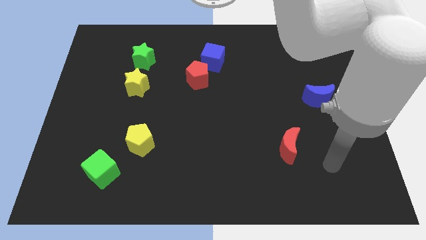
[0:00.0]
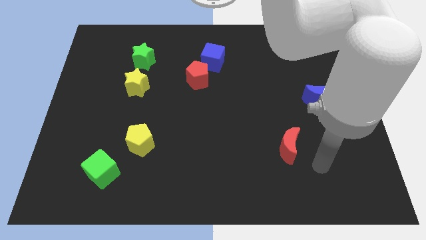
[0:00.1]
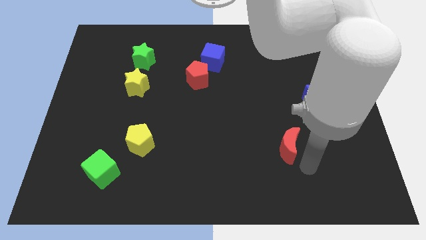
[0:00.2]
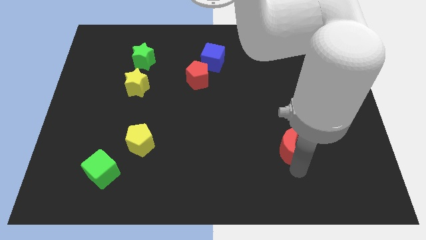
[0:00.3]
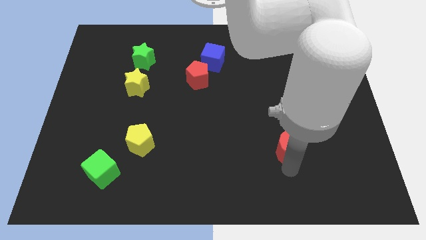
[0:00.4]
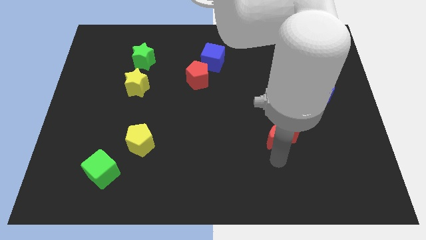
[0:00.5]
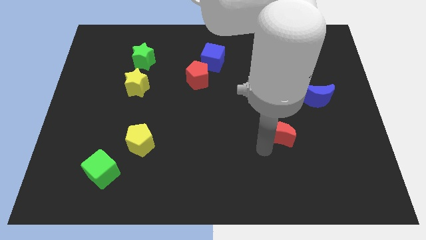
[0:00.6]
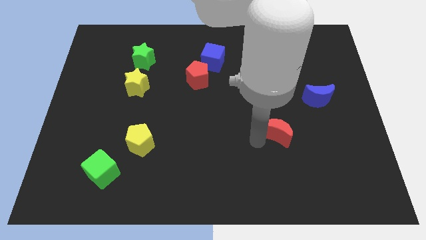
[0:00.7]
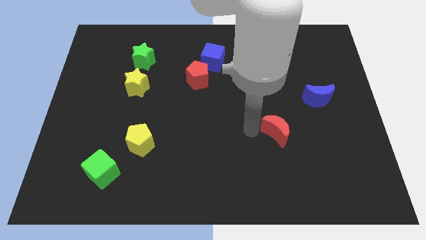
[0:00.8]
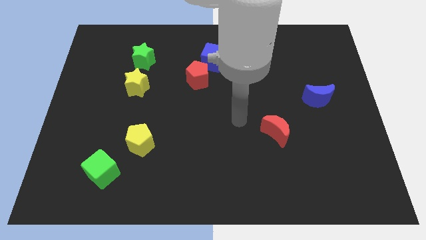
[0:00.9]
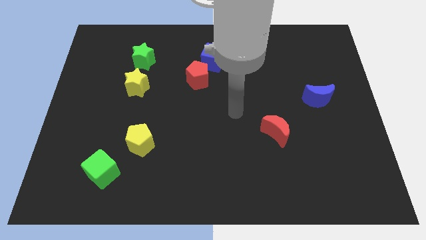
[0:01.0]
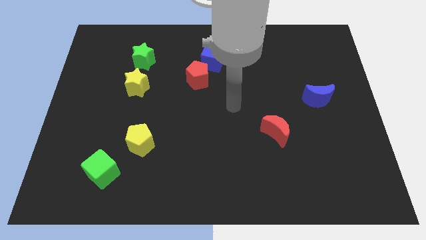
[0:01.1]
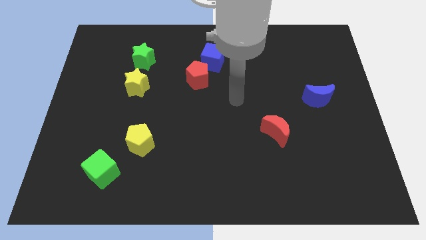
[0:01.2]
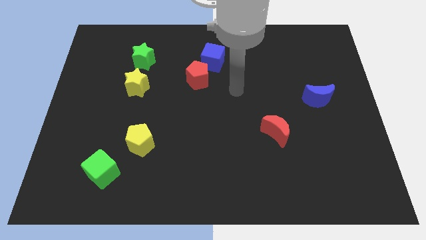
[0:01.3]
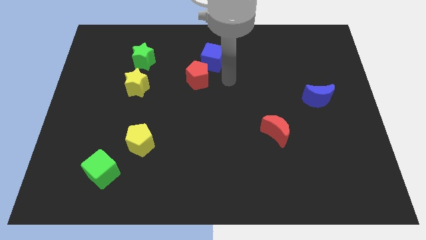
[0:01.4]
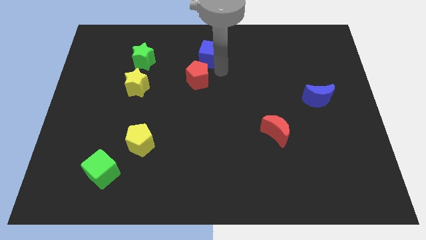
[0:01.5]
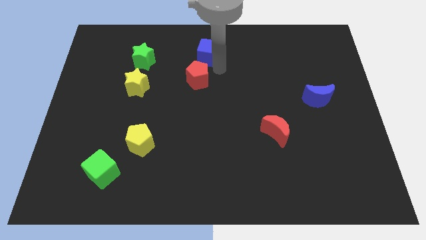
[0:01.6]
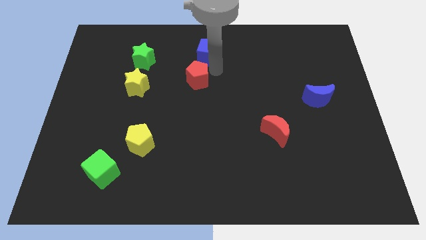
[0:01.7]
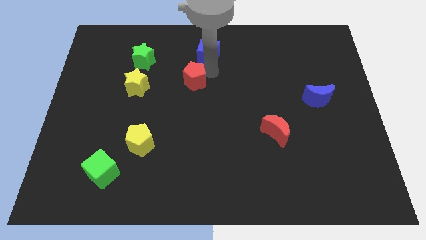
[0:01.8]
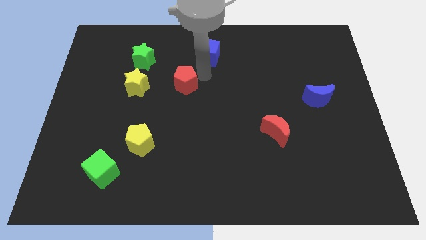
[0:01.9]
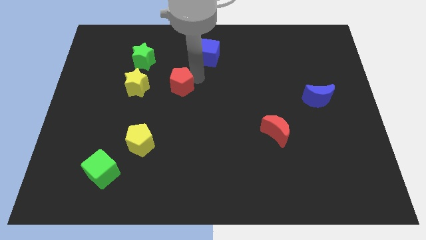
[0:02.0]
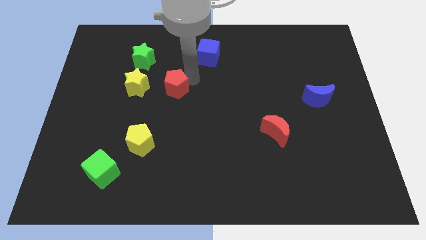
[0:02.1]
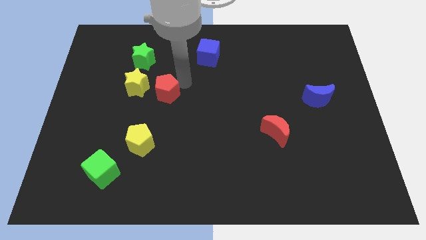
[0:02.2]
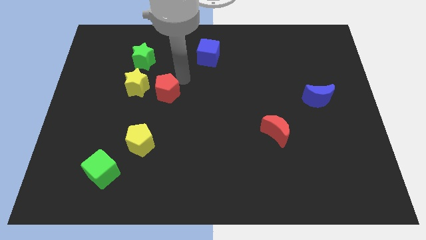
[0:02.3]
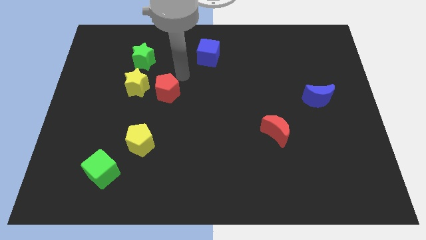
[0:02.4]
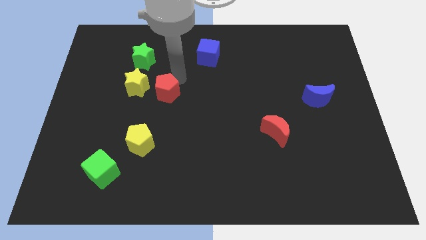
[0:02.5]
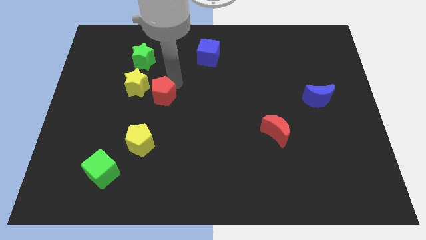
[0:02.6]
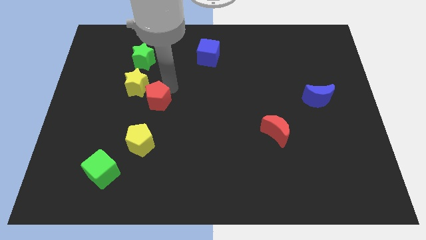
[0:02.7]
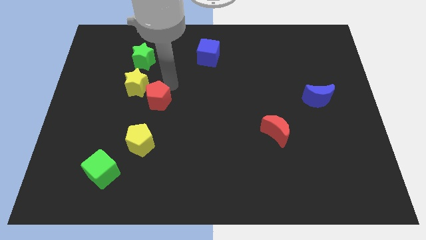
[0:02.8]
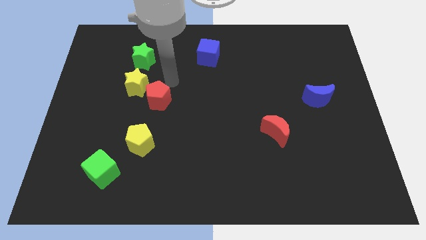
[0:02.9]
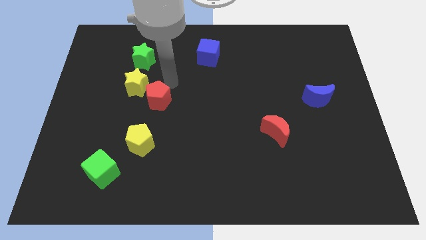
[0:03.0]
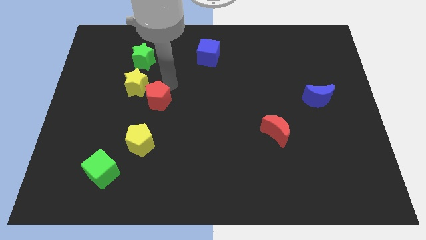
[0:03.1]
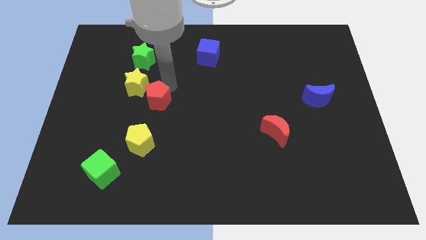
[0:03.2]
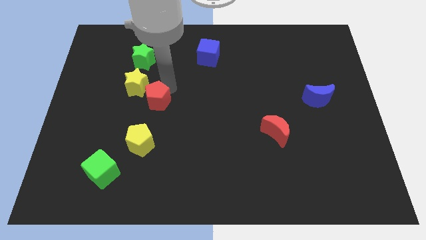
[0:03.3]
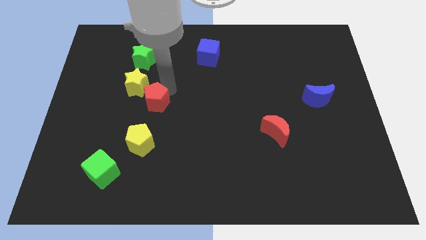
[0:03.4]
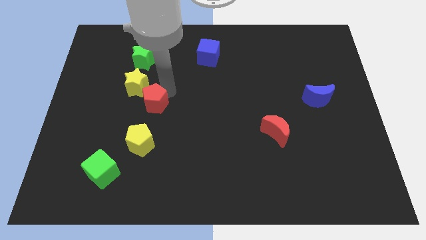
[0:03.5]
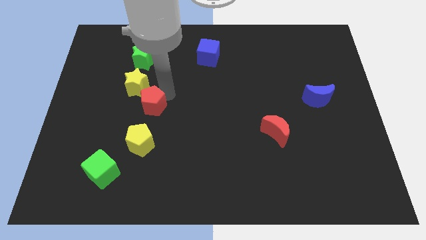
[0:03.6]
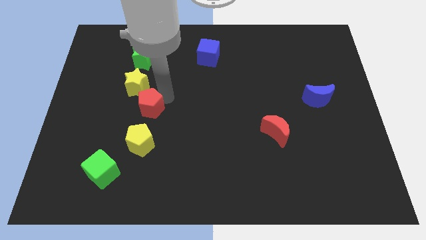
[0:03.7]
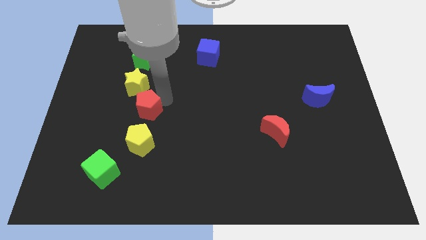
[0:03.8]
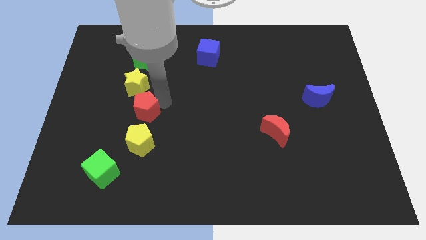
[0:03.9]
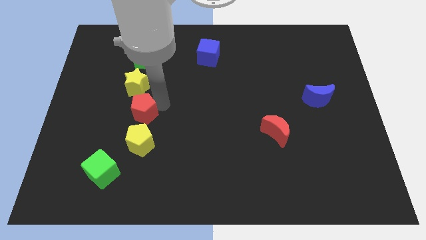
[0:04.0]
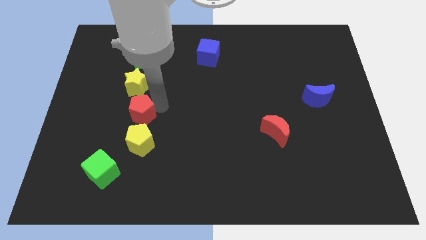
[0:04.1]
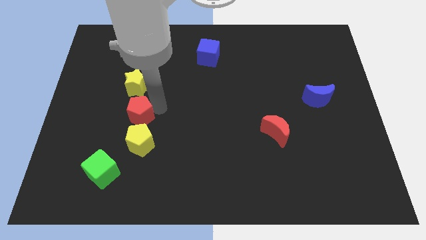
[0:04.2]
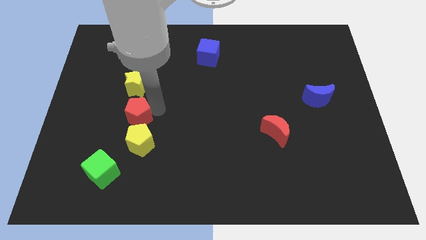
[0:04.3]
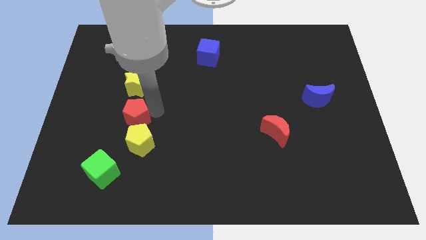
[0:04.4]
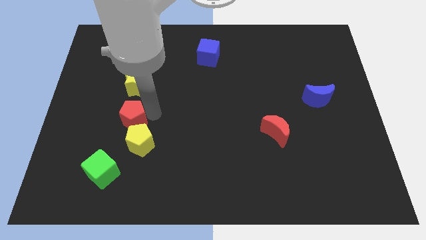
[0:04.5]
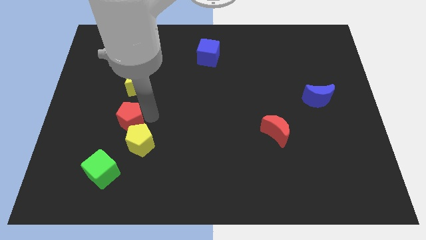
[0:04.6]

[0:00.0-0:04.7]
move the red pentagon down and to the left

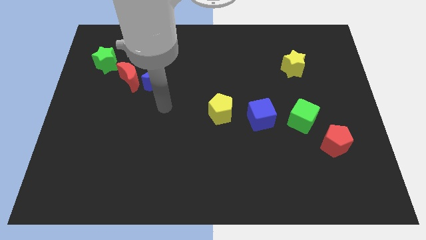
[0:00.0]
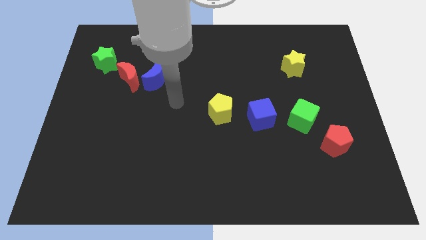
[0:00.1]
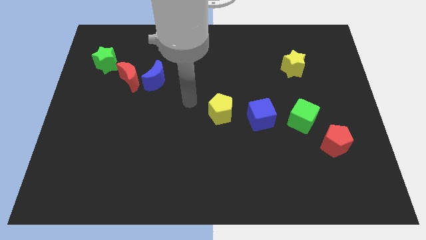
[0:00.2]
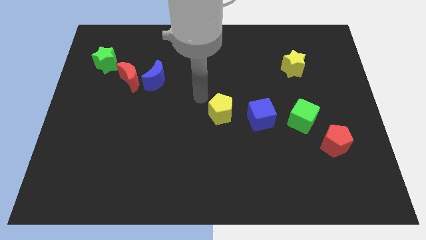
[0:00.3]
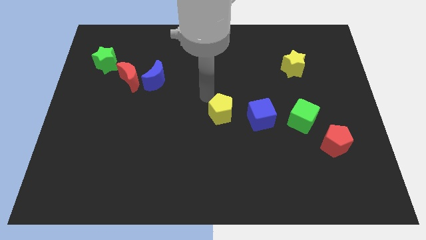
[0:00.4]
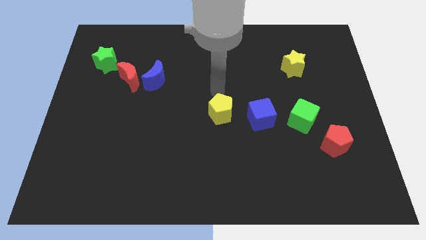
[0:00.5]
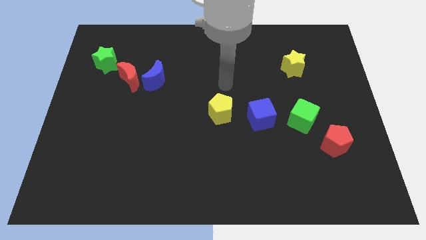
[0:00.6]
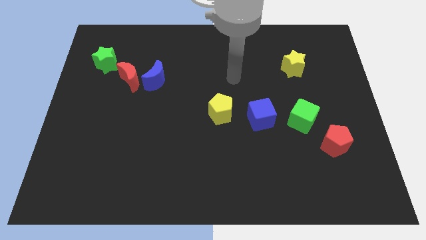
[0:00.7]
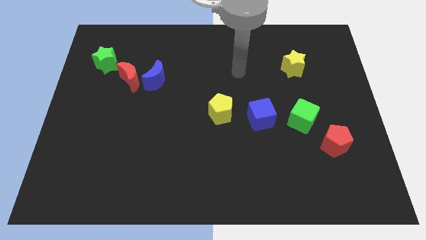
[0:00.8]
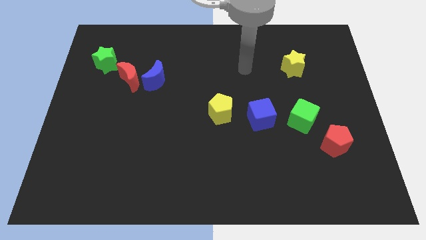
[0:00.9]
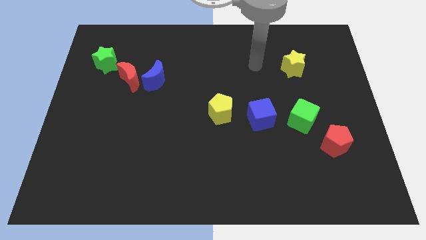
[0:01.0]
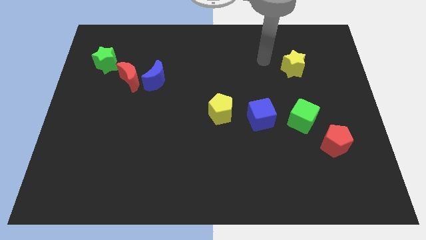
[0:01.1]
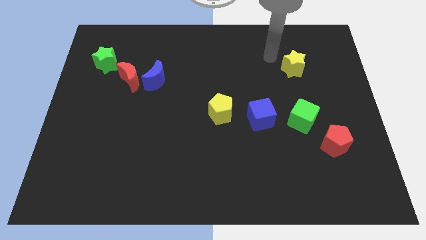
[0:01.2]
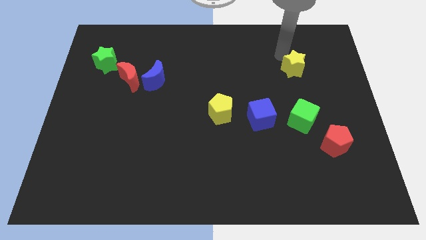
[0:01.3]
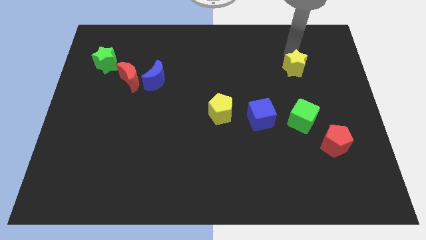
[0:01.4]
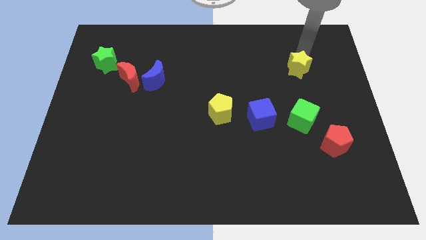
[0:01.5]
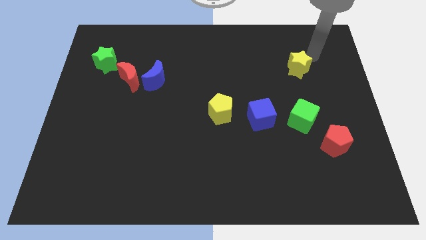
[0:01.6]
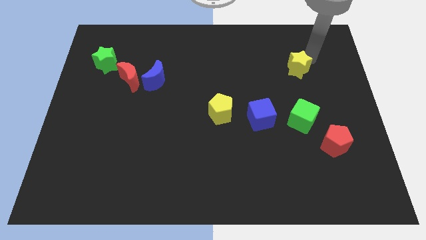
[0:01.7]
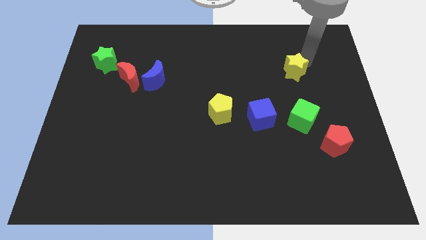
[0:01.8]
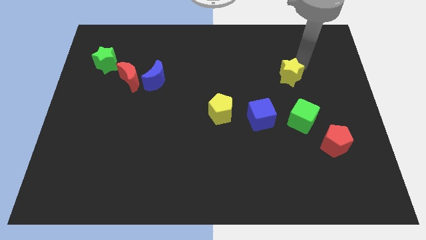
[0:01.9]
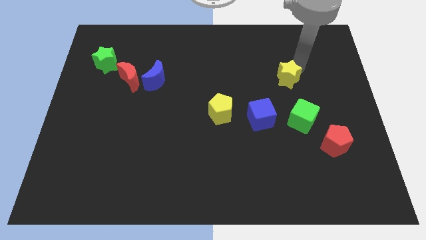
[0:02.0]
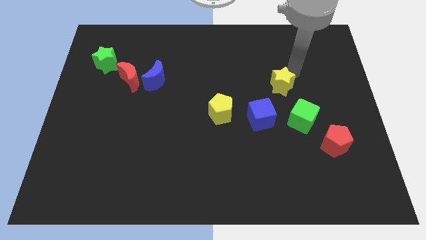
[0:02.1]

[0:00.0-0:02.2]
slide the yellow star a bit diagonally downwards and left

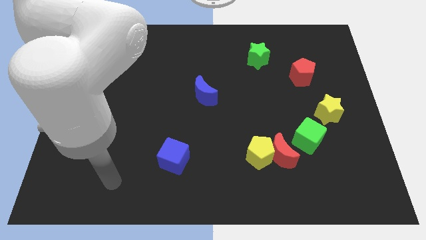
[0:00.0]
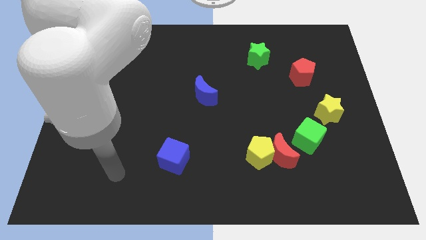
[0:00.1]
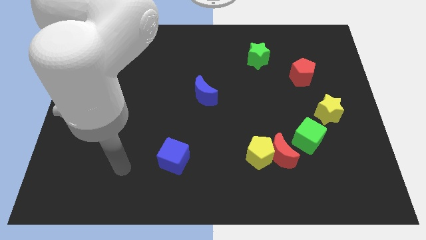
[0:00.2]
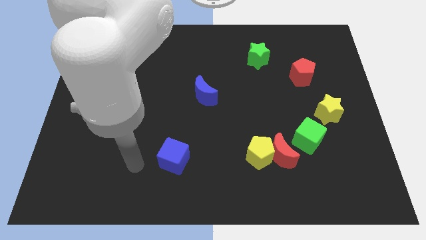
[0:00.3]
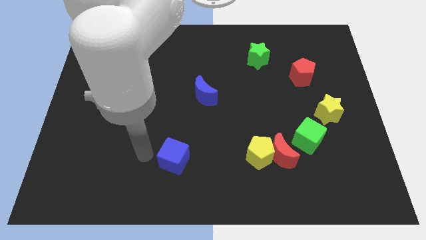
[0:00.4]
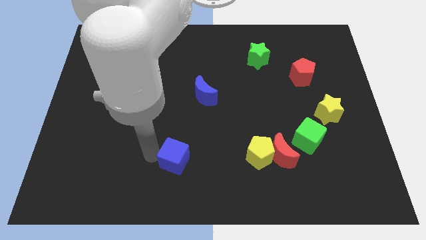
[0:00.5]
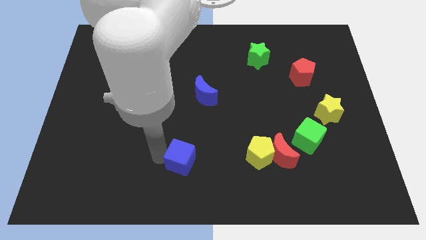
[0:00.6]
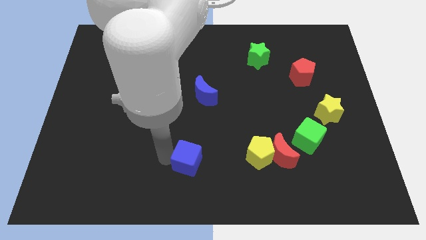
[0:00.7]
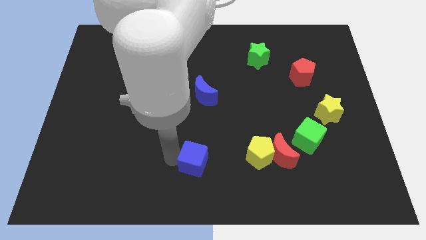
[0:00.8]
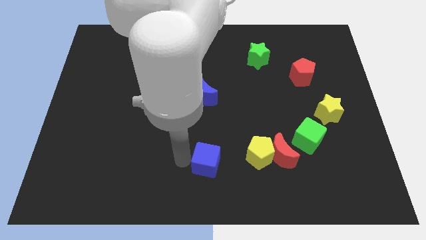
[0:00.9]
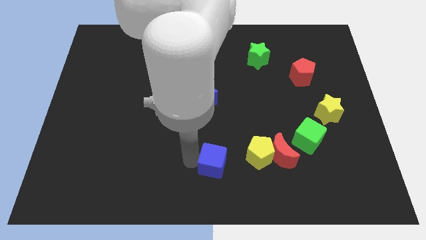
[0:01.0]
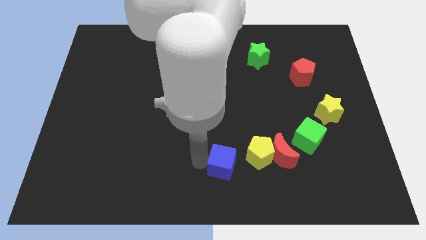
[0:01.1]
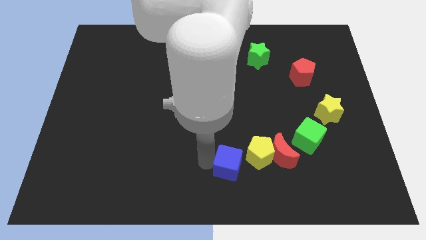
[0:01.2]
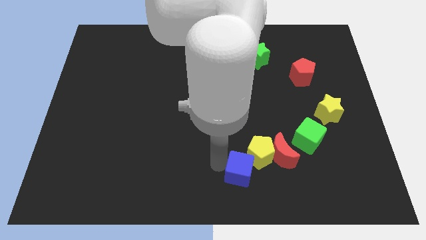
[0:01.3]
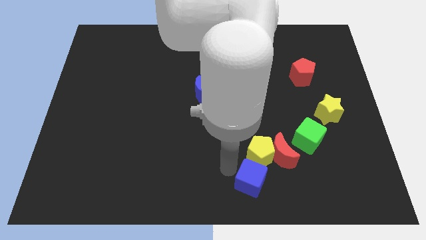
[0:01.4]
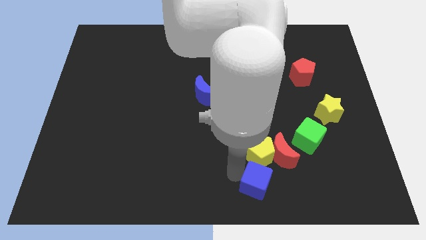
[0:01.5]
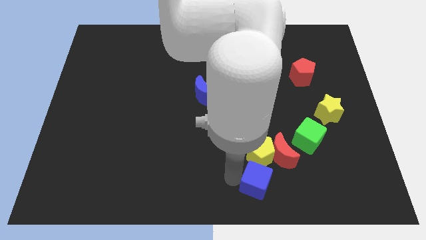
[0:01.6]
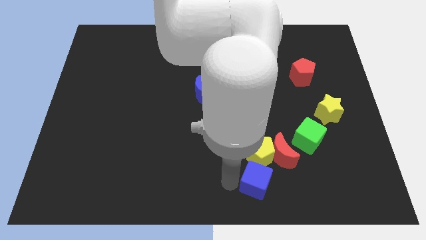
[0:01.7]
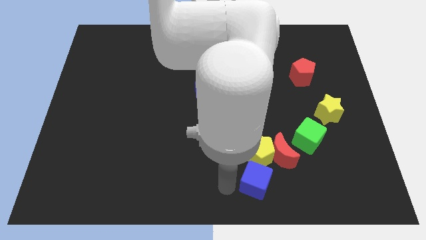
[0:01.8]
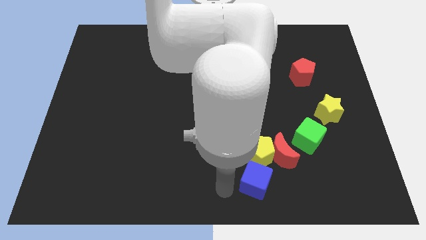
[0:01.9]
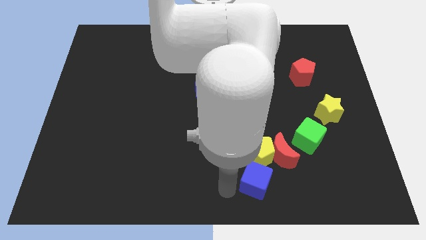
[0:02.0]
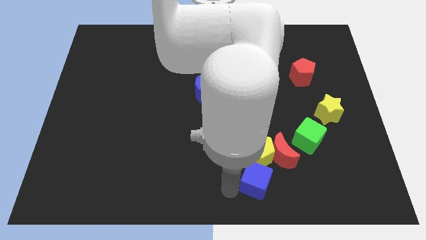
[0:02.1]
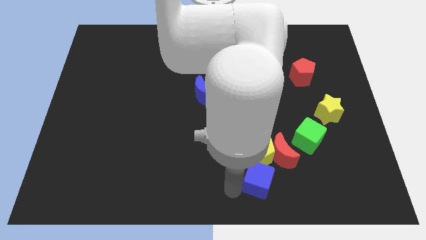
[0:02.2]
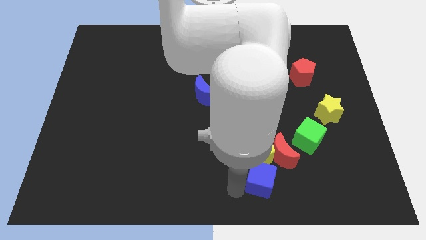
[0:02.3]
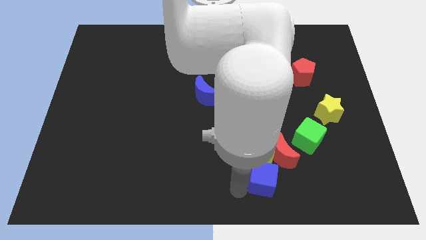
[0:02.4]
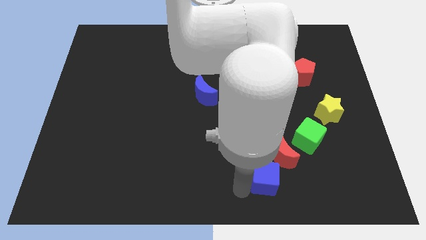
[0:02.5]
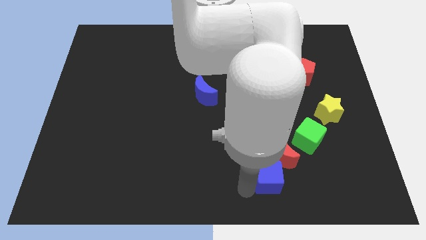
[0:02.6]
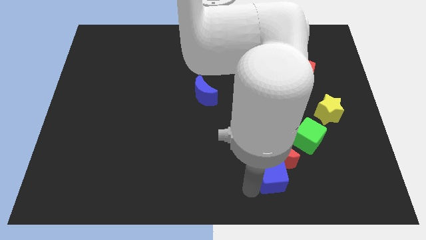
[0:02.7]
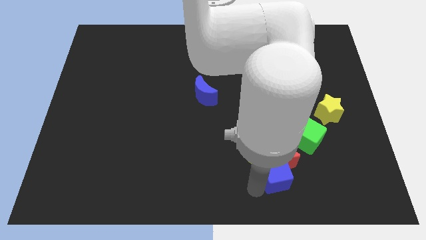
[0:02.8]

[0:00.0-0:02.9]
move the blue cube to the right
